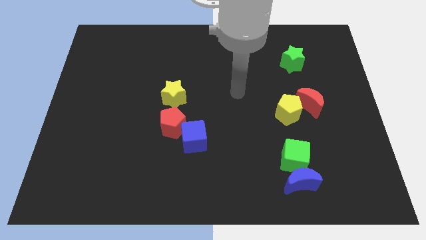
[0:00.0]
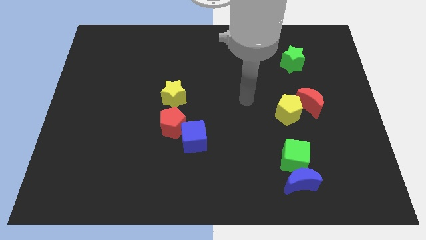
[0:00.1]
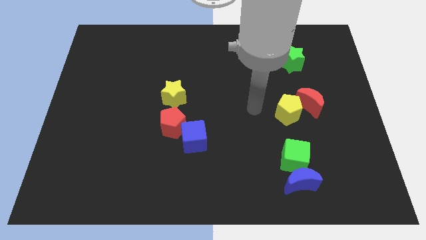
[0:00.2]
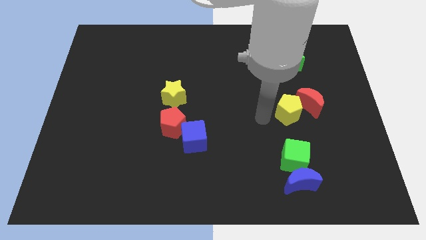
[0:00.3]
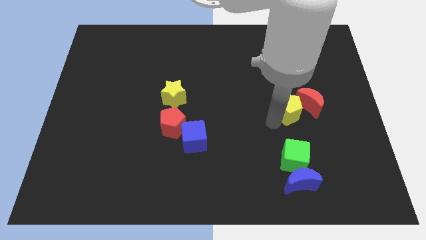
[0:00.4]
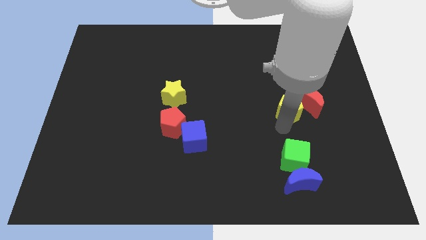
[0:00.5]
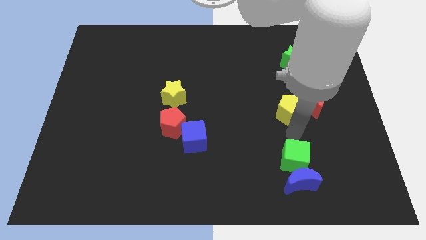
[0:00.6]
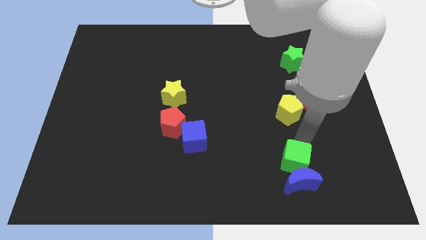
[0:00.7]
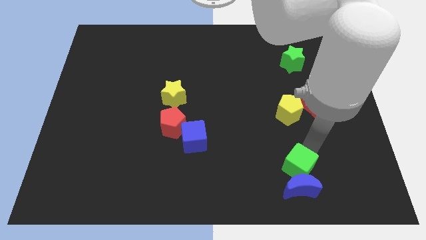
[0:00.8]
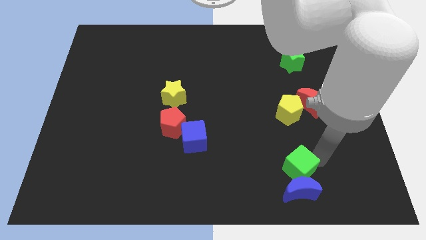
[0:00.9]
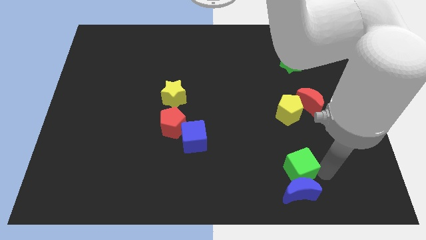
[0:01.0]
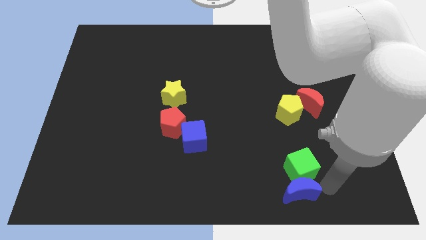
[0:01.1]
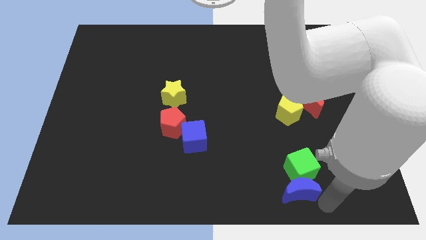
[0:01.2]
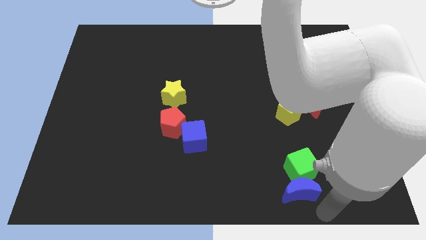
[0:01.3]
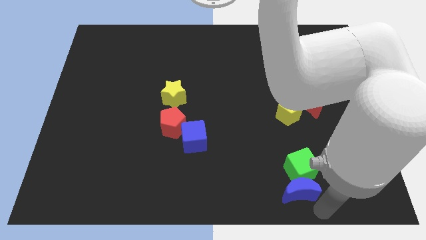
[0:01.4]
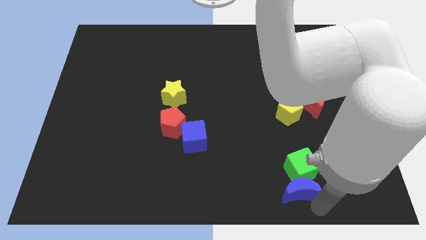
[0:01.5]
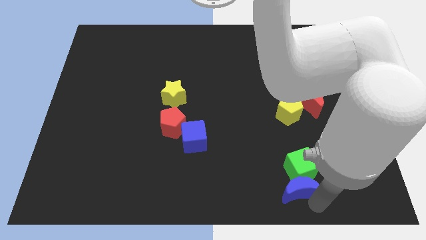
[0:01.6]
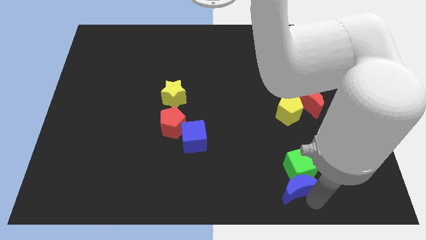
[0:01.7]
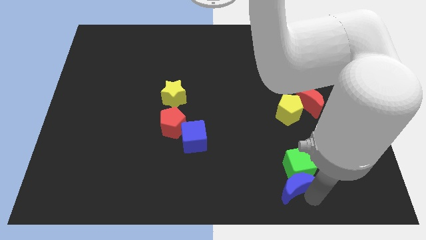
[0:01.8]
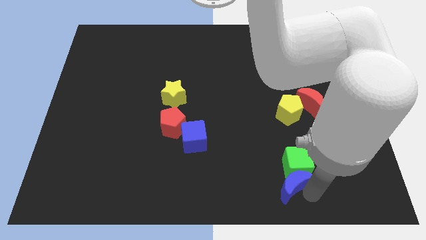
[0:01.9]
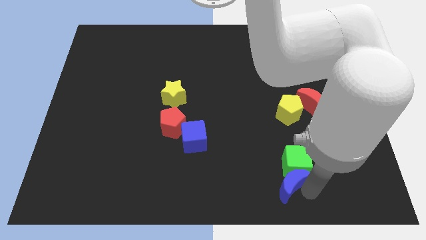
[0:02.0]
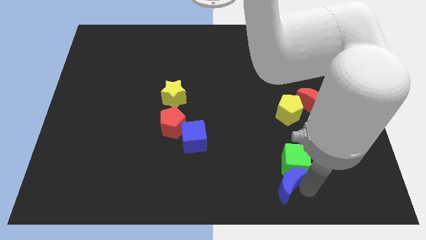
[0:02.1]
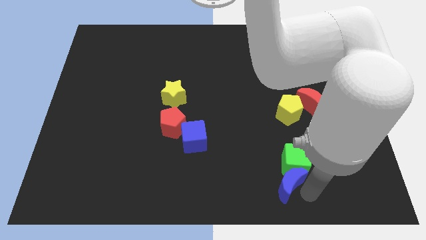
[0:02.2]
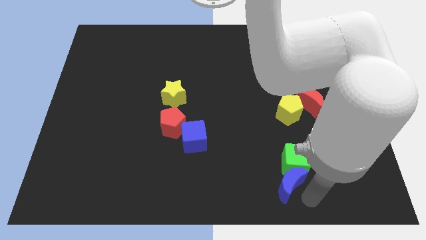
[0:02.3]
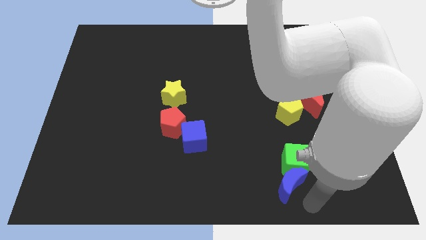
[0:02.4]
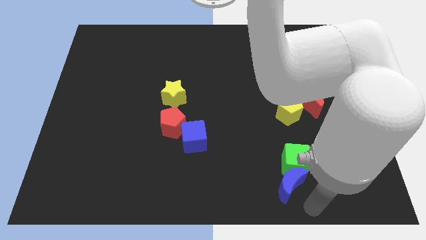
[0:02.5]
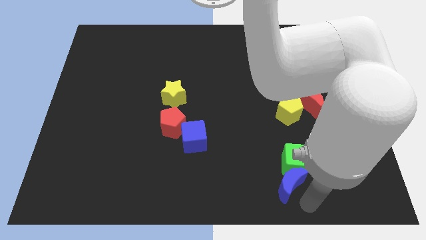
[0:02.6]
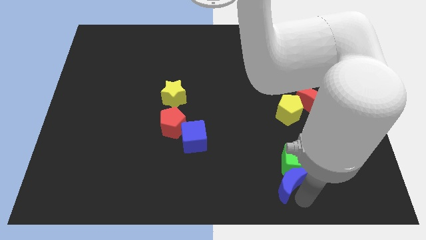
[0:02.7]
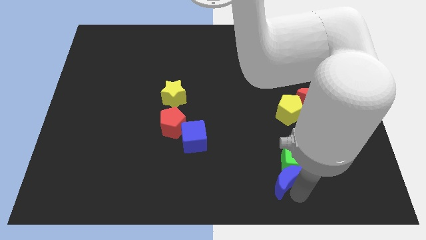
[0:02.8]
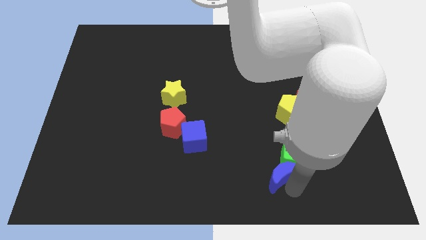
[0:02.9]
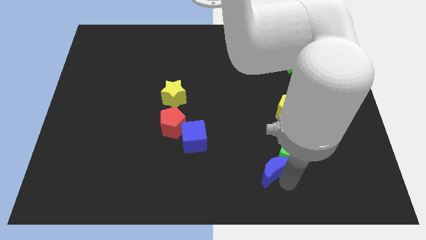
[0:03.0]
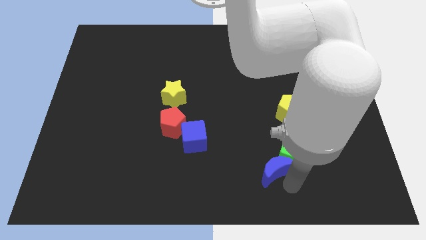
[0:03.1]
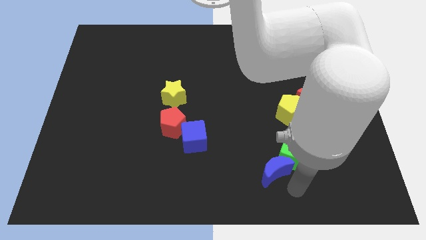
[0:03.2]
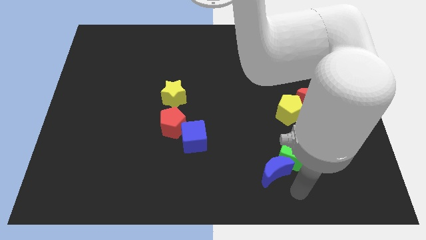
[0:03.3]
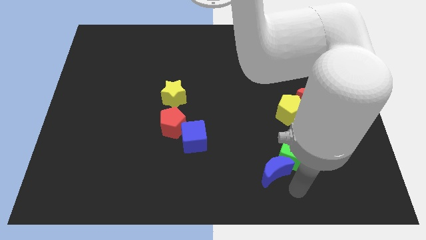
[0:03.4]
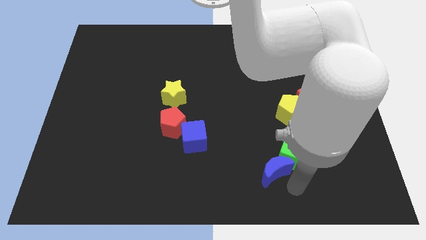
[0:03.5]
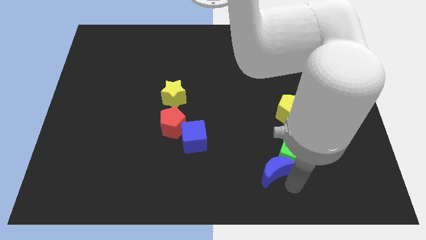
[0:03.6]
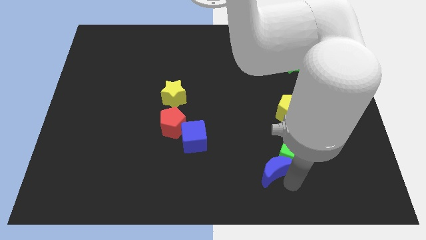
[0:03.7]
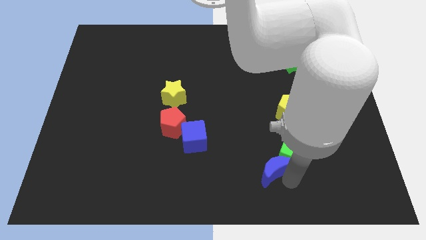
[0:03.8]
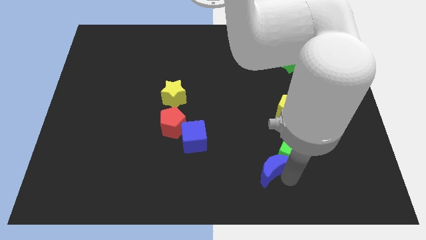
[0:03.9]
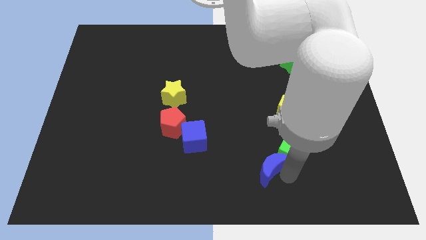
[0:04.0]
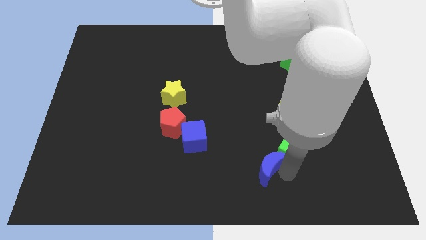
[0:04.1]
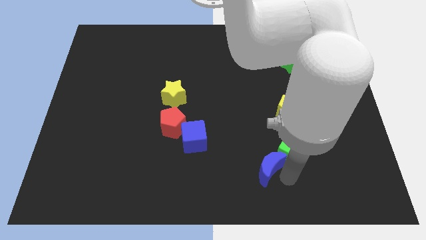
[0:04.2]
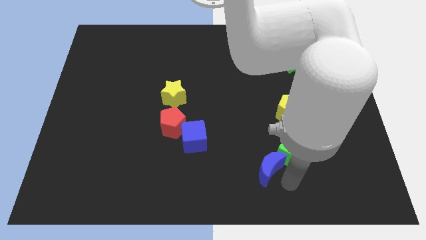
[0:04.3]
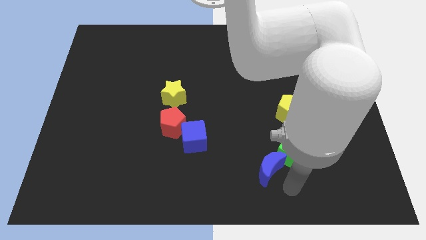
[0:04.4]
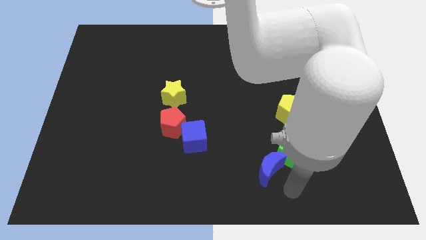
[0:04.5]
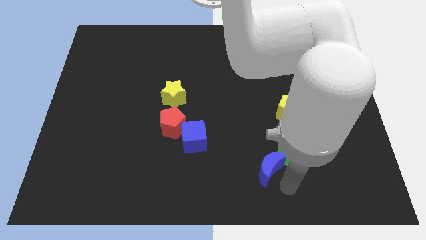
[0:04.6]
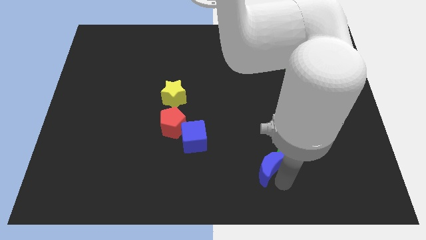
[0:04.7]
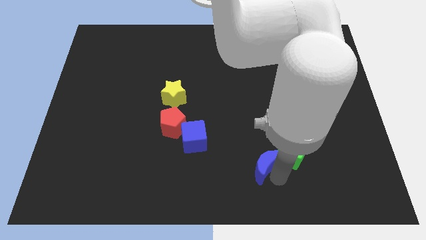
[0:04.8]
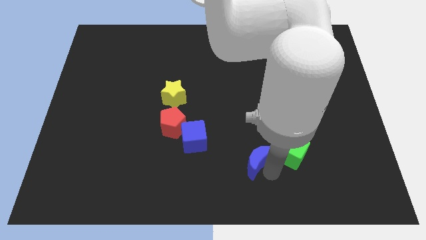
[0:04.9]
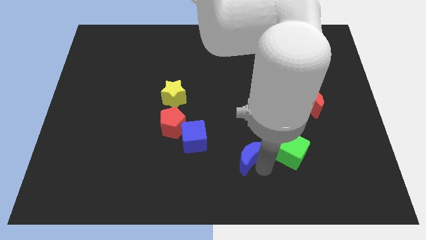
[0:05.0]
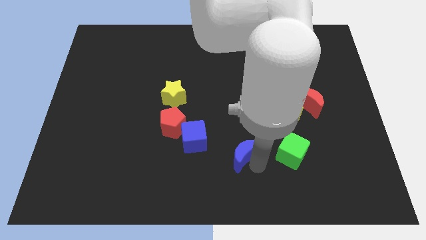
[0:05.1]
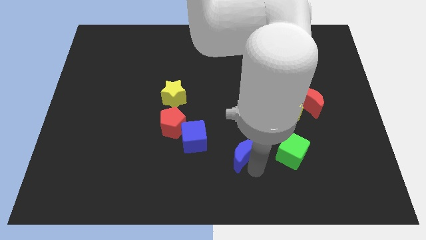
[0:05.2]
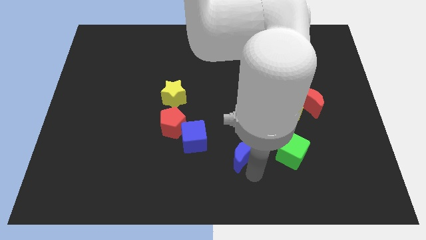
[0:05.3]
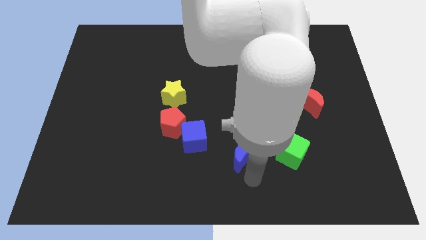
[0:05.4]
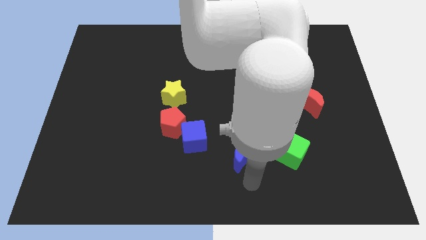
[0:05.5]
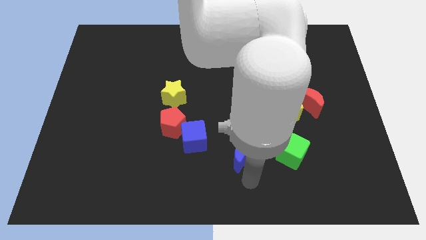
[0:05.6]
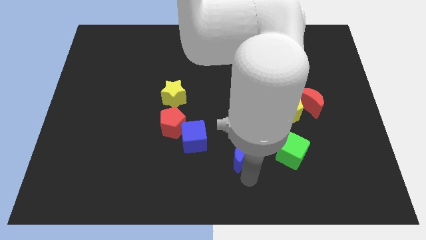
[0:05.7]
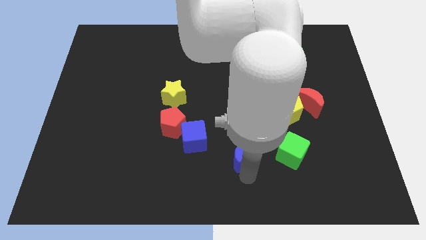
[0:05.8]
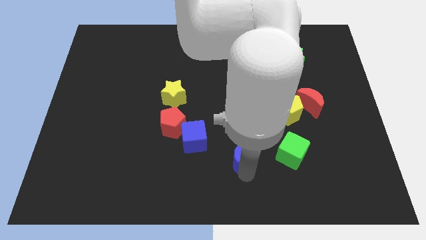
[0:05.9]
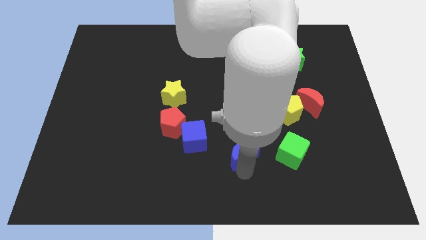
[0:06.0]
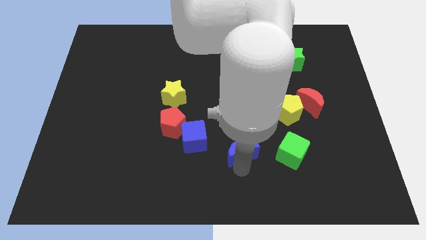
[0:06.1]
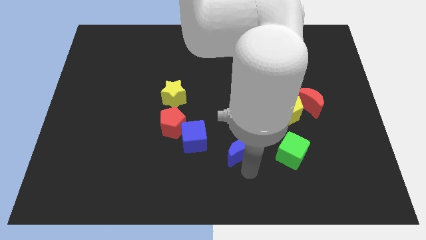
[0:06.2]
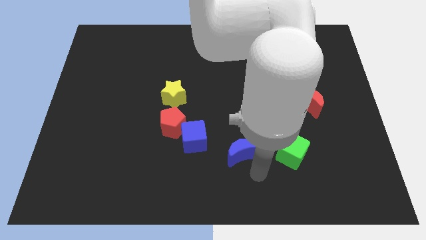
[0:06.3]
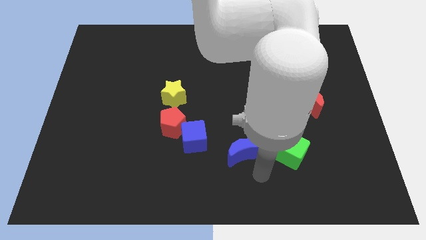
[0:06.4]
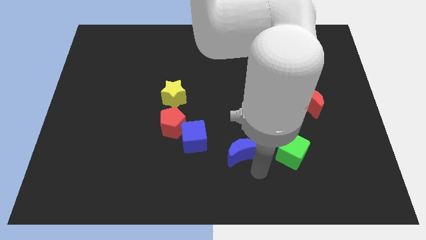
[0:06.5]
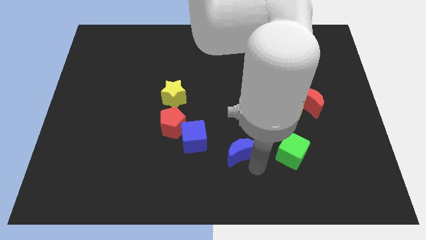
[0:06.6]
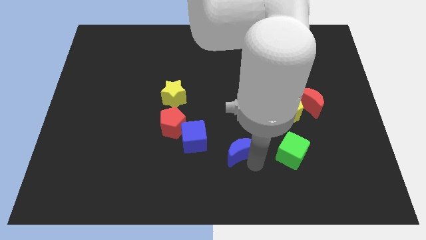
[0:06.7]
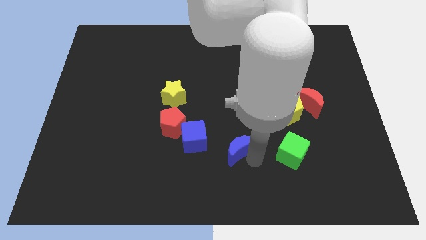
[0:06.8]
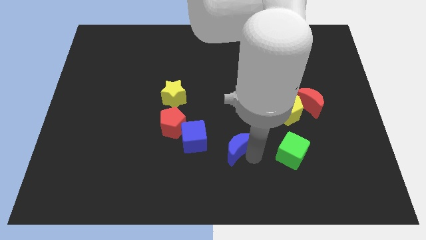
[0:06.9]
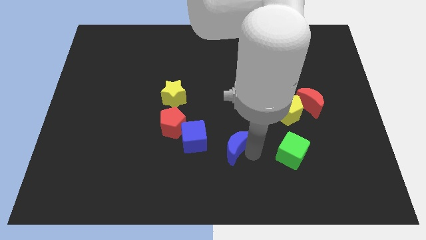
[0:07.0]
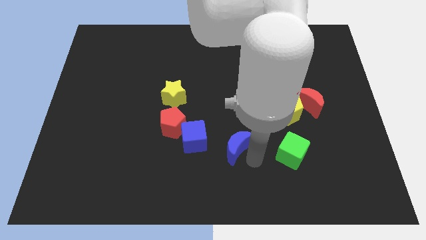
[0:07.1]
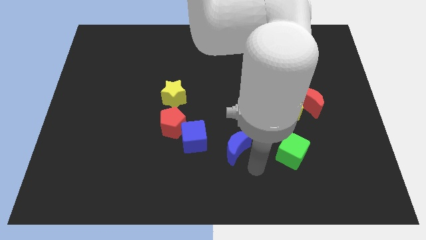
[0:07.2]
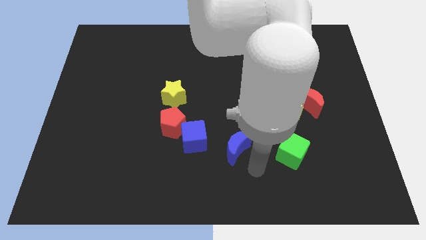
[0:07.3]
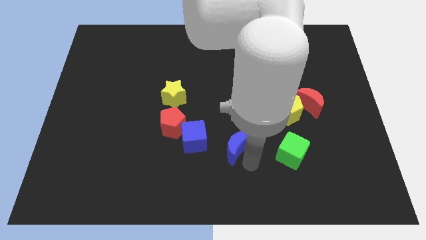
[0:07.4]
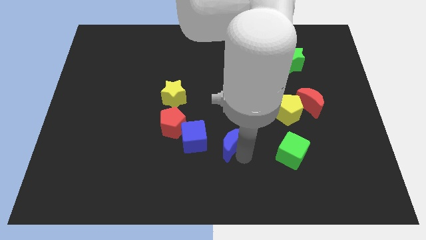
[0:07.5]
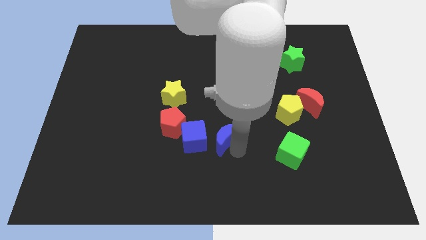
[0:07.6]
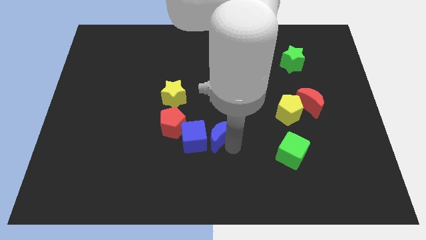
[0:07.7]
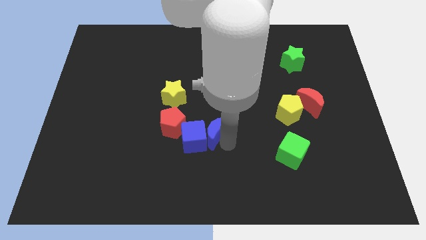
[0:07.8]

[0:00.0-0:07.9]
slide the blue moon diagonally upwards and left
